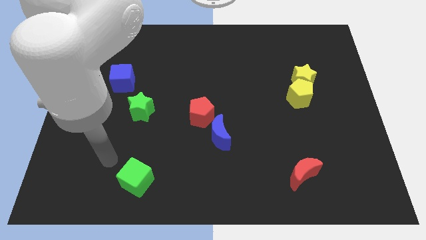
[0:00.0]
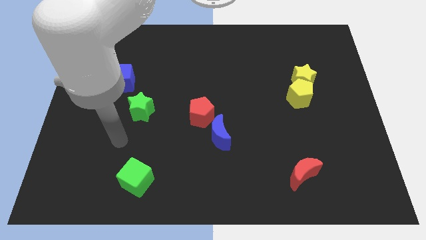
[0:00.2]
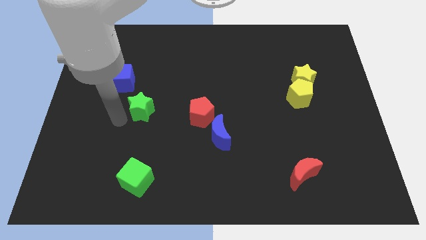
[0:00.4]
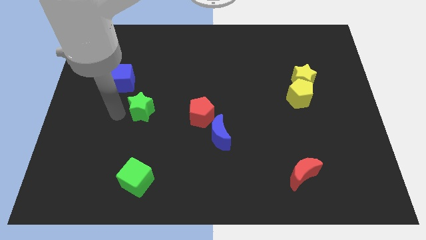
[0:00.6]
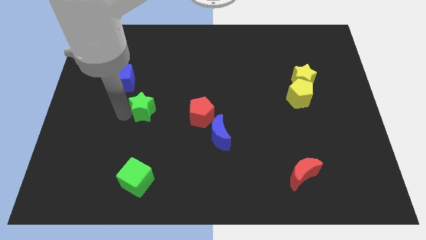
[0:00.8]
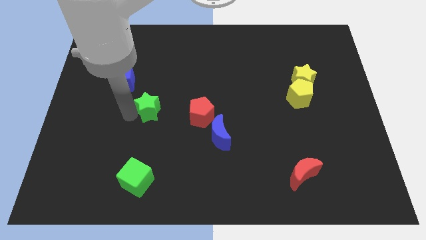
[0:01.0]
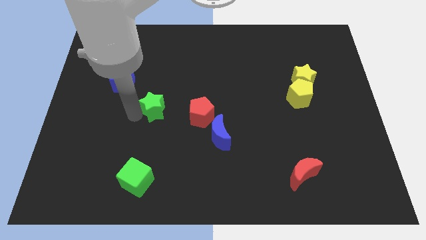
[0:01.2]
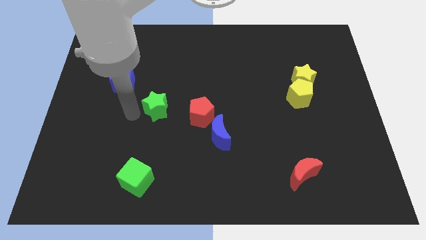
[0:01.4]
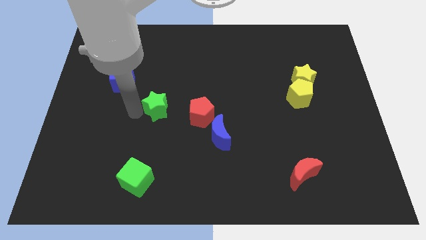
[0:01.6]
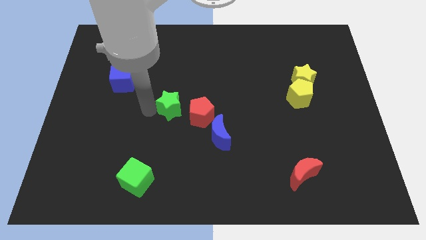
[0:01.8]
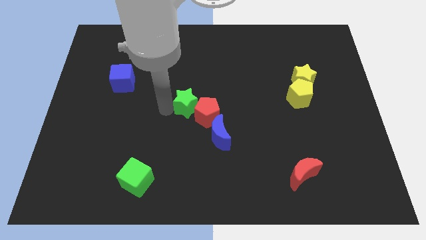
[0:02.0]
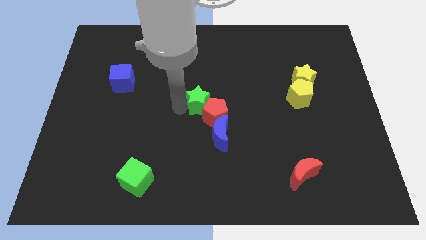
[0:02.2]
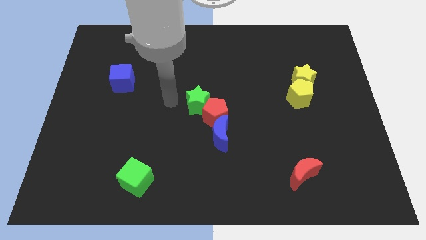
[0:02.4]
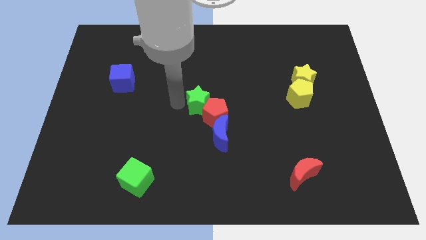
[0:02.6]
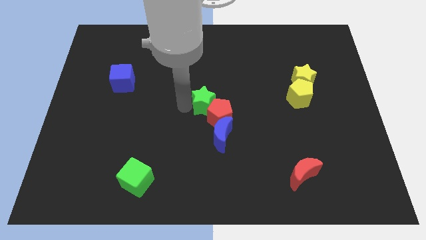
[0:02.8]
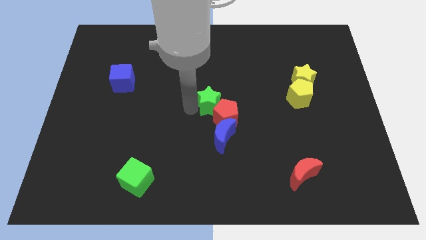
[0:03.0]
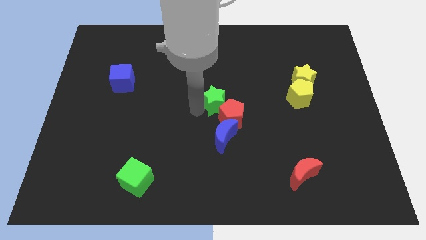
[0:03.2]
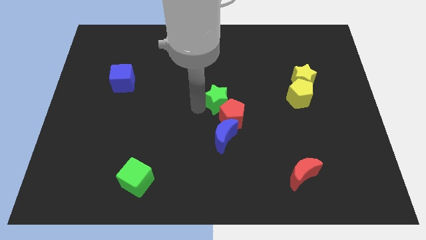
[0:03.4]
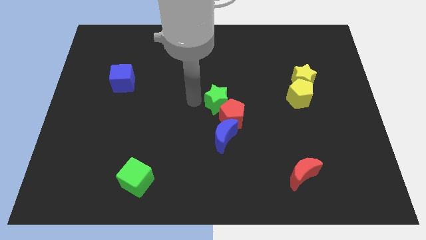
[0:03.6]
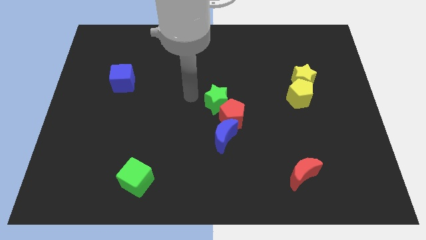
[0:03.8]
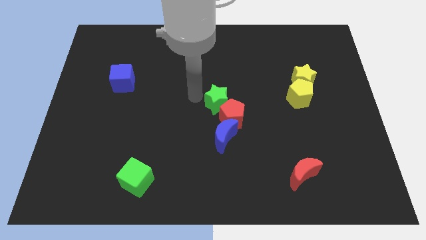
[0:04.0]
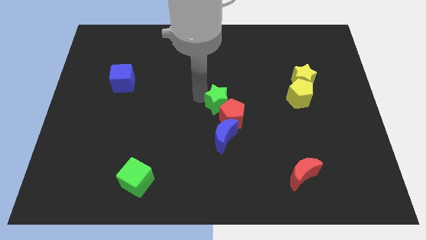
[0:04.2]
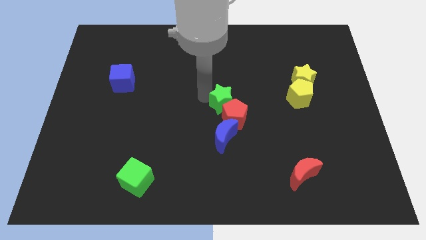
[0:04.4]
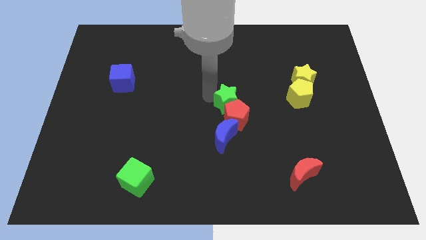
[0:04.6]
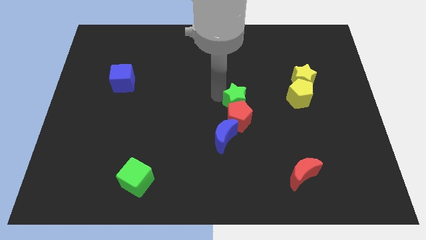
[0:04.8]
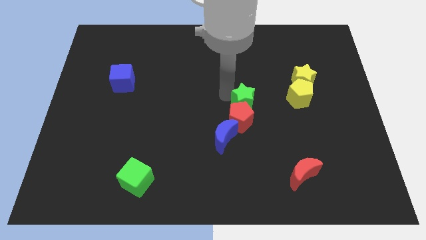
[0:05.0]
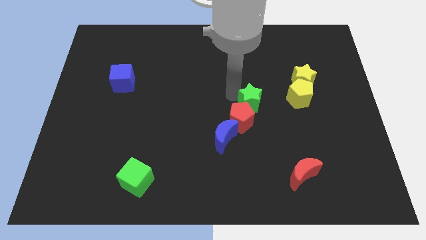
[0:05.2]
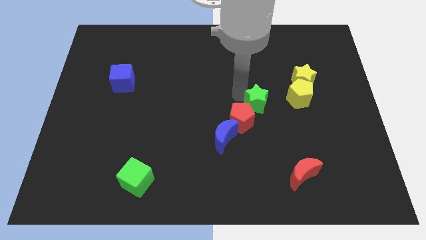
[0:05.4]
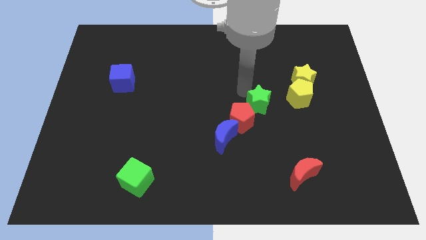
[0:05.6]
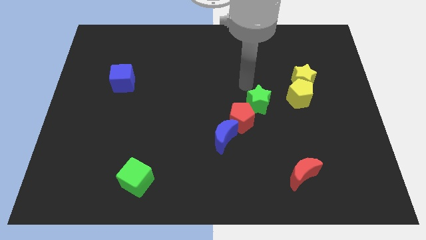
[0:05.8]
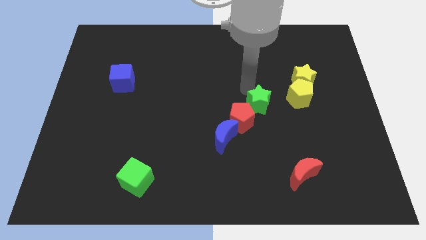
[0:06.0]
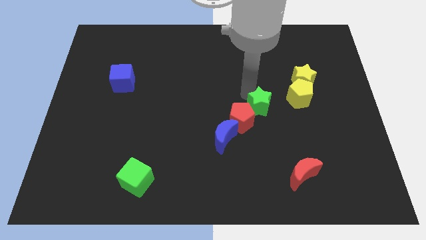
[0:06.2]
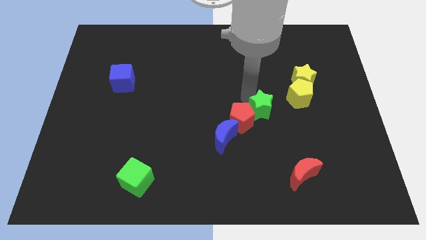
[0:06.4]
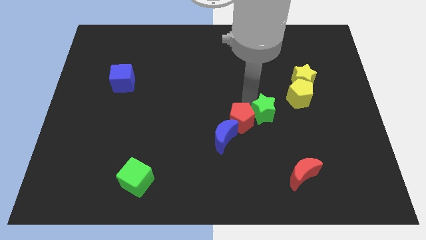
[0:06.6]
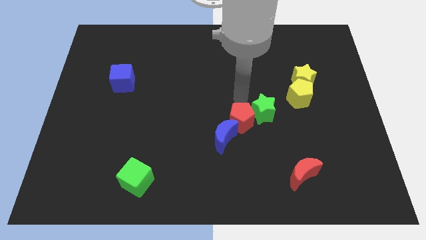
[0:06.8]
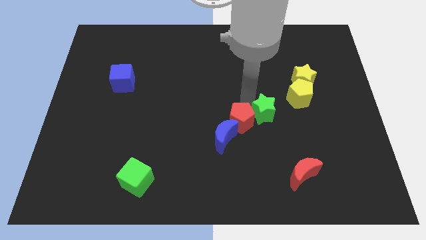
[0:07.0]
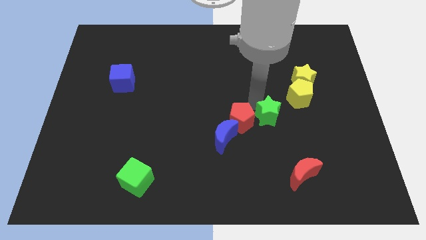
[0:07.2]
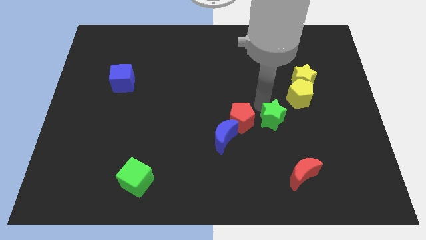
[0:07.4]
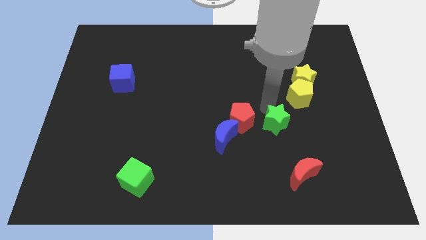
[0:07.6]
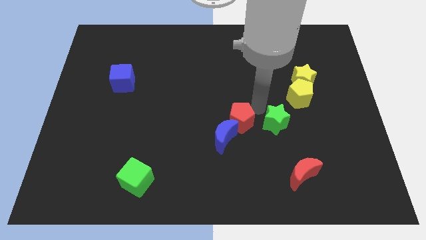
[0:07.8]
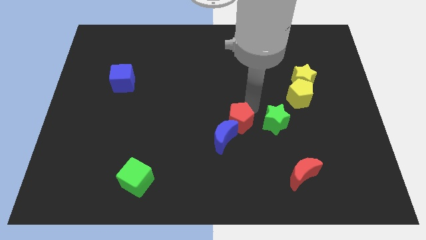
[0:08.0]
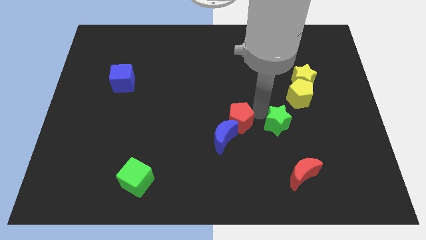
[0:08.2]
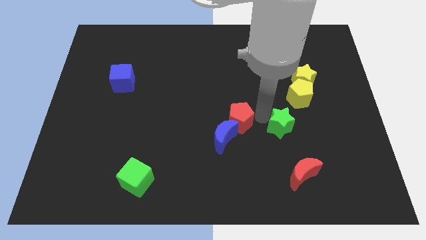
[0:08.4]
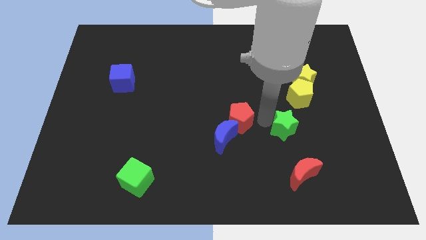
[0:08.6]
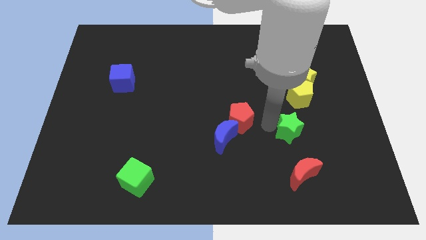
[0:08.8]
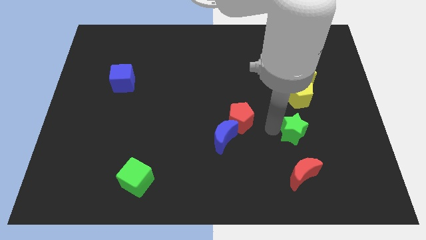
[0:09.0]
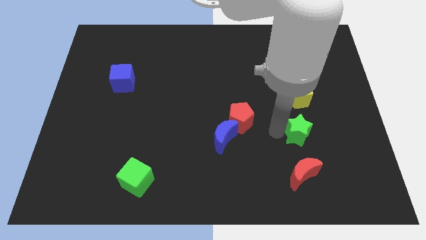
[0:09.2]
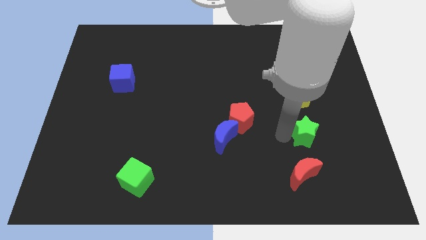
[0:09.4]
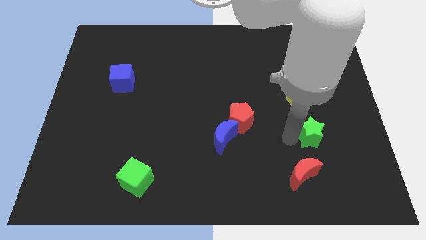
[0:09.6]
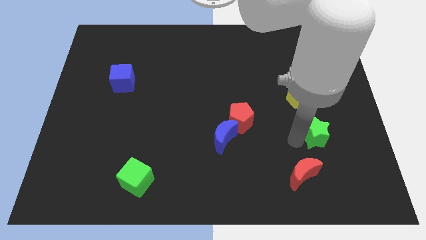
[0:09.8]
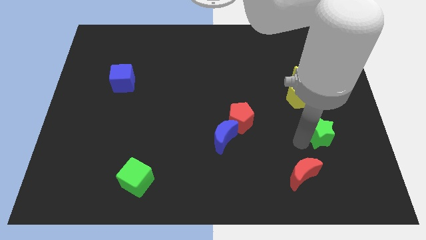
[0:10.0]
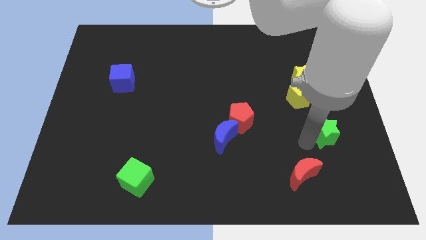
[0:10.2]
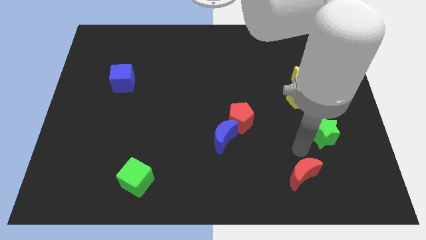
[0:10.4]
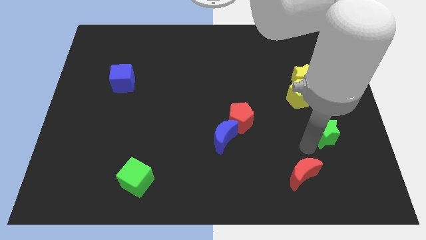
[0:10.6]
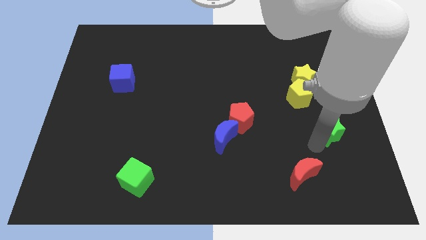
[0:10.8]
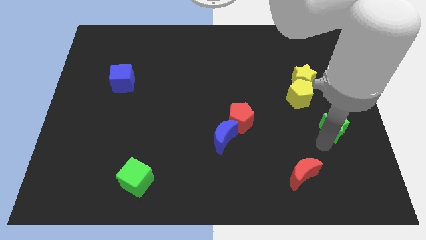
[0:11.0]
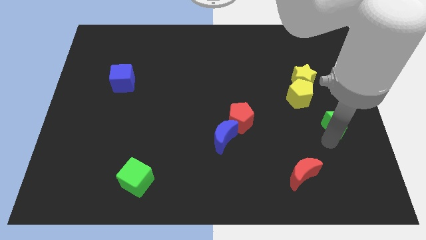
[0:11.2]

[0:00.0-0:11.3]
slide the green star to the center right

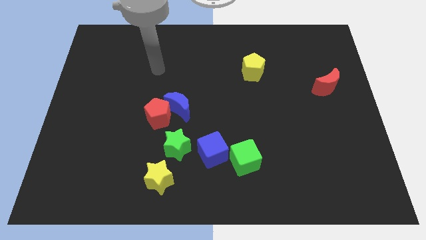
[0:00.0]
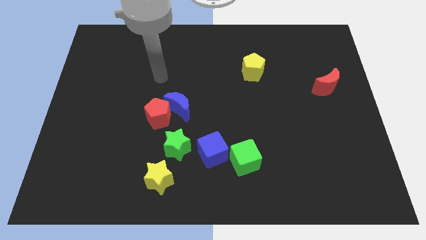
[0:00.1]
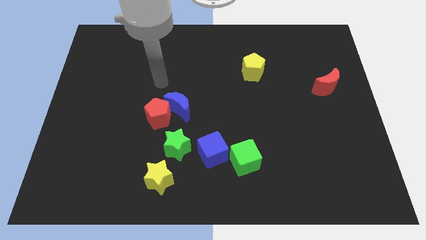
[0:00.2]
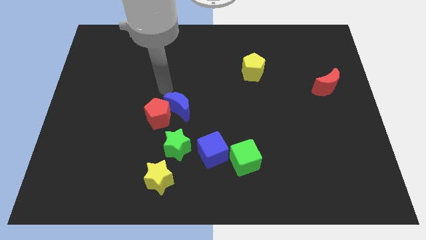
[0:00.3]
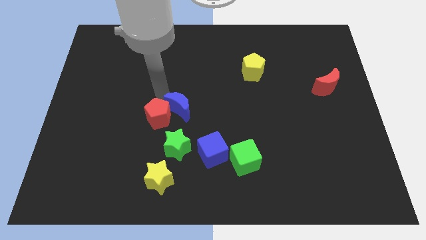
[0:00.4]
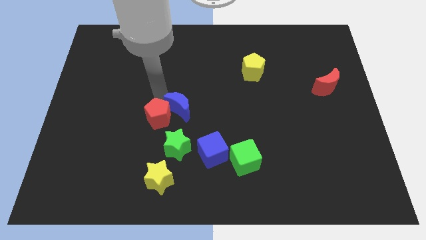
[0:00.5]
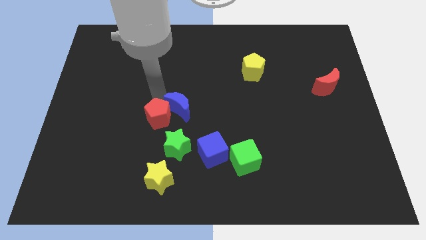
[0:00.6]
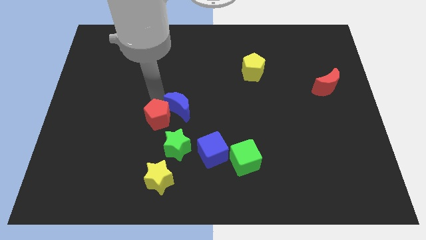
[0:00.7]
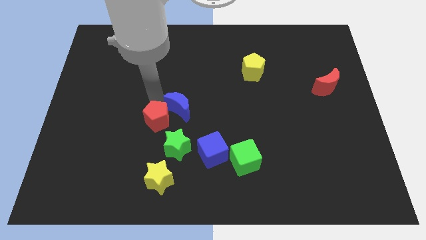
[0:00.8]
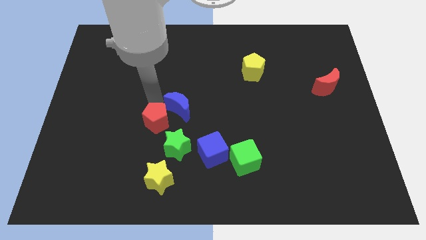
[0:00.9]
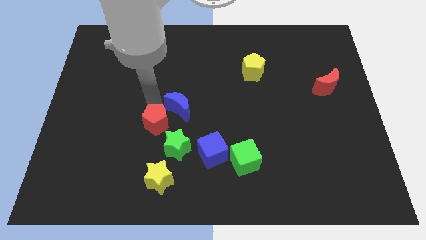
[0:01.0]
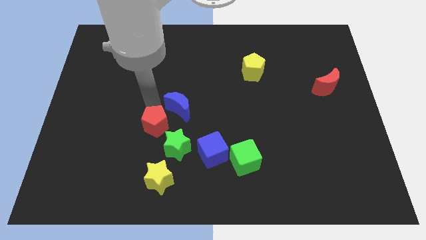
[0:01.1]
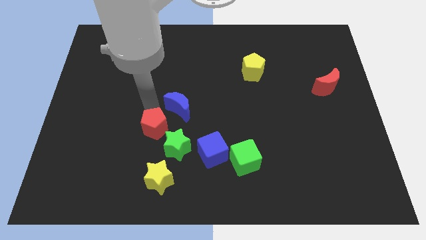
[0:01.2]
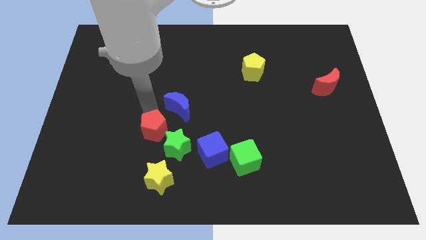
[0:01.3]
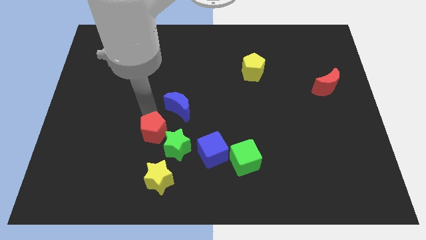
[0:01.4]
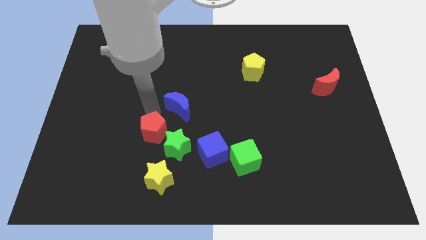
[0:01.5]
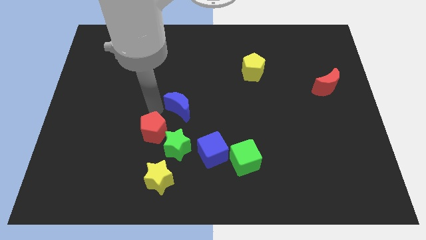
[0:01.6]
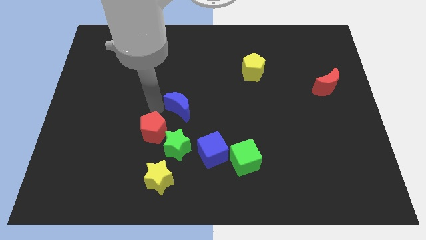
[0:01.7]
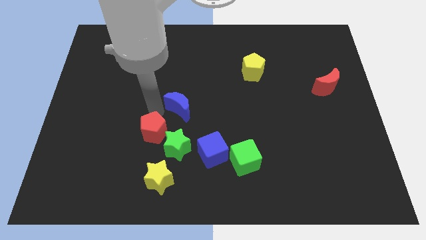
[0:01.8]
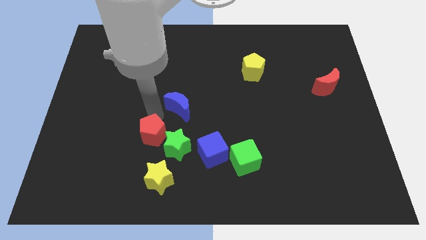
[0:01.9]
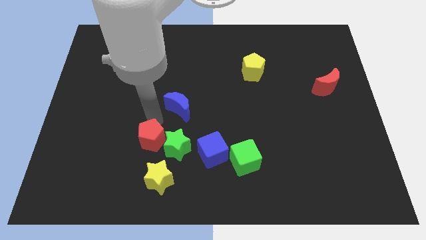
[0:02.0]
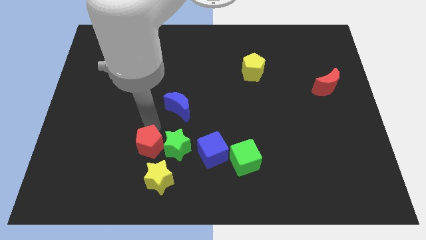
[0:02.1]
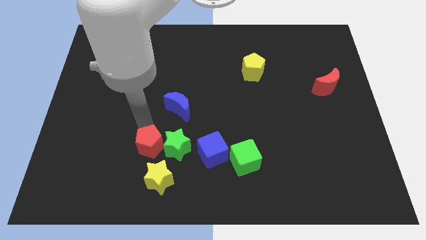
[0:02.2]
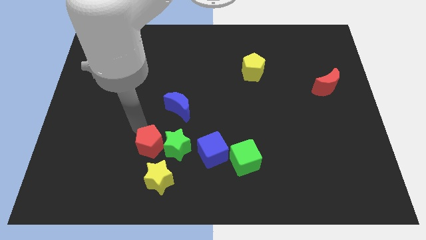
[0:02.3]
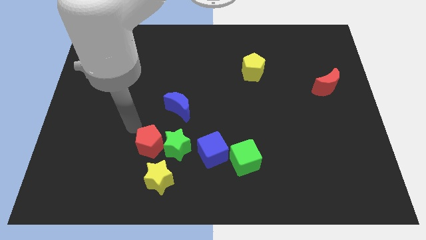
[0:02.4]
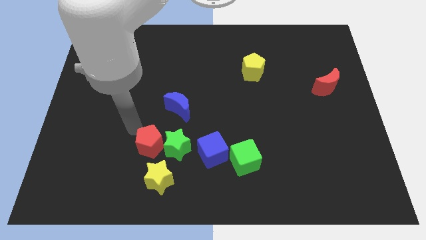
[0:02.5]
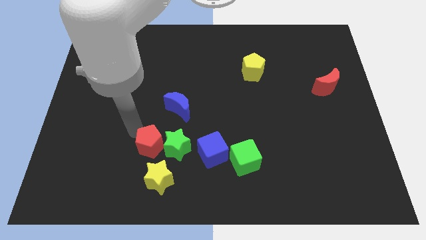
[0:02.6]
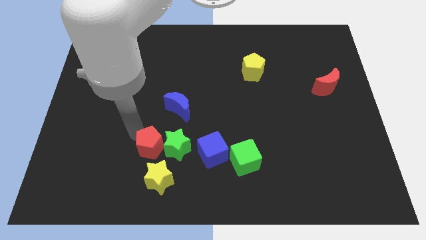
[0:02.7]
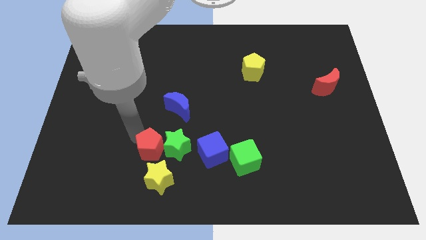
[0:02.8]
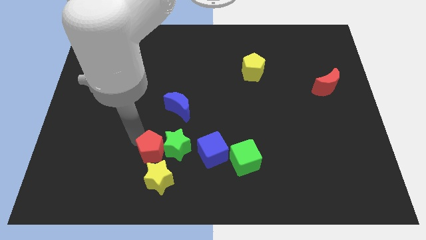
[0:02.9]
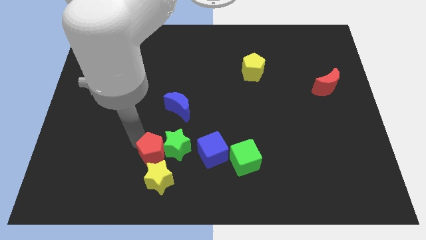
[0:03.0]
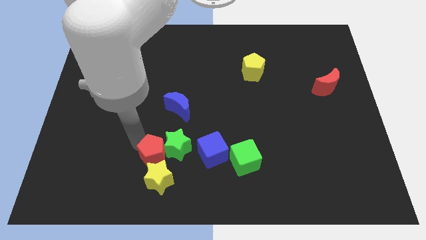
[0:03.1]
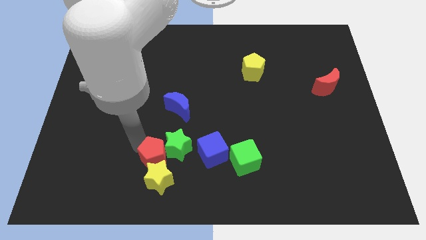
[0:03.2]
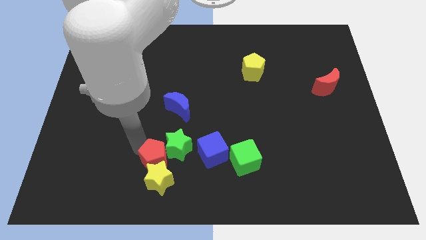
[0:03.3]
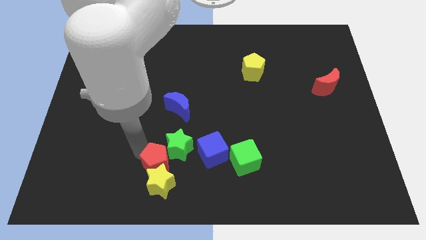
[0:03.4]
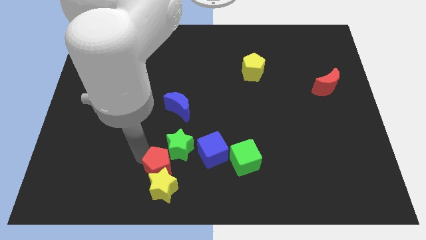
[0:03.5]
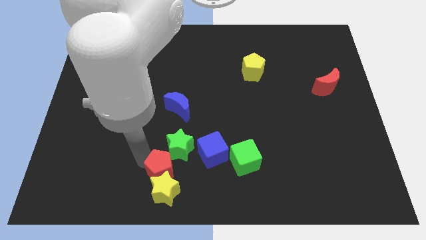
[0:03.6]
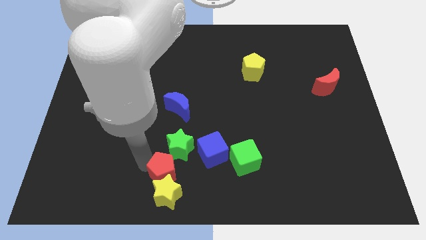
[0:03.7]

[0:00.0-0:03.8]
slide the red pentagon to the bottom
